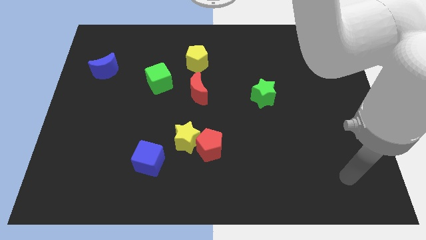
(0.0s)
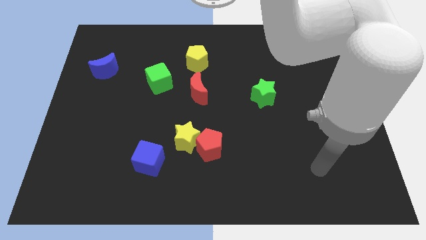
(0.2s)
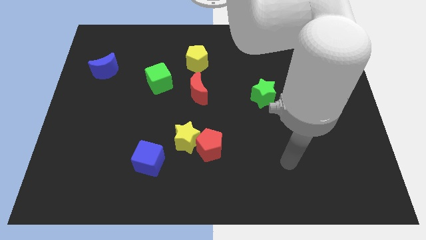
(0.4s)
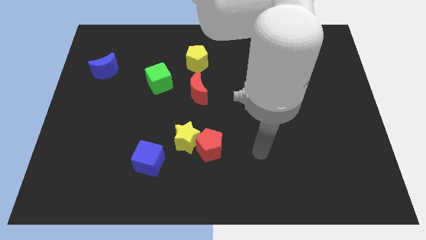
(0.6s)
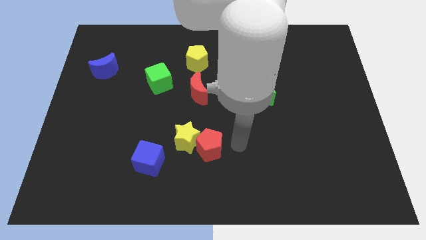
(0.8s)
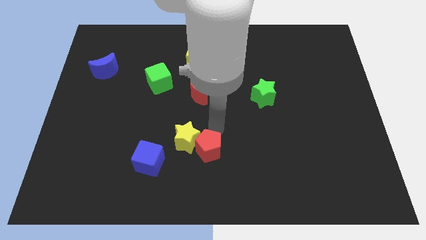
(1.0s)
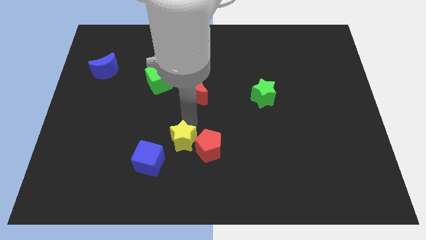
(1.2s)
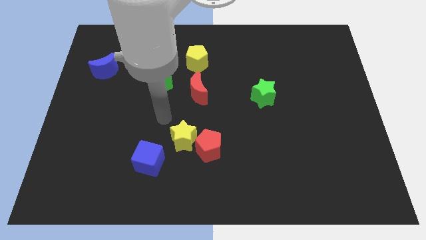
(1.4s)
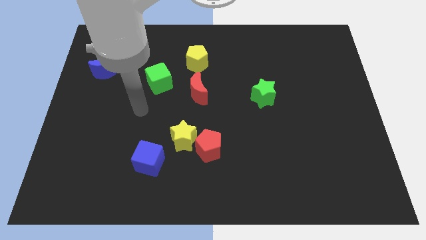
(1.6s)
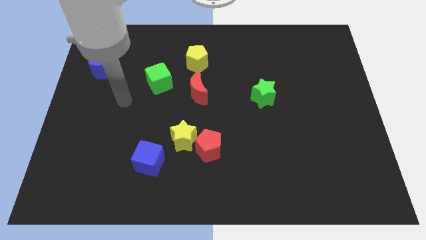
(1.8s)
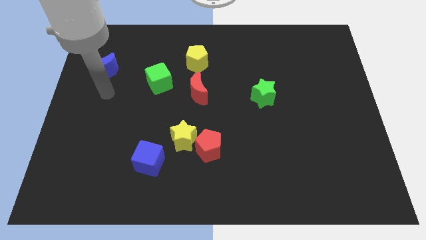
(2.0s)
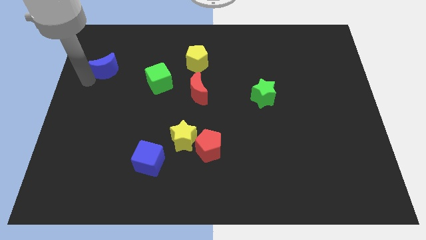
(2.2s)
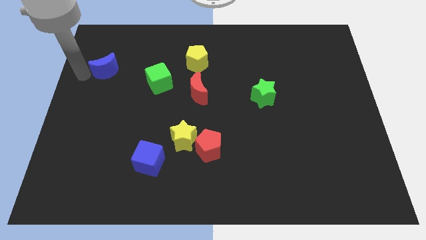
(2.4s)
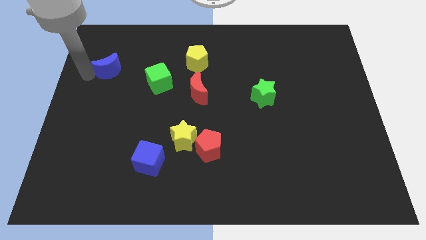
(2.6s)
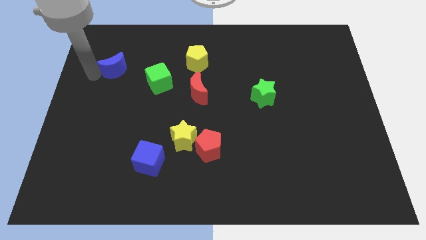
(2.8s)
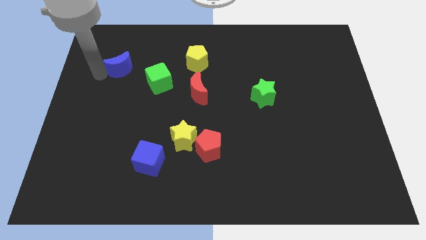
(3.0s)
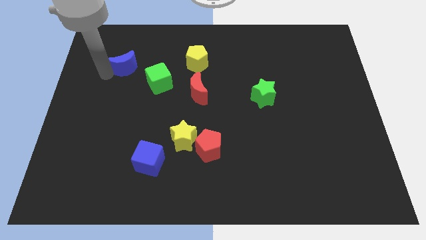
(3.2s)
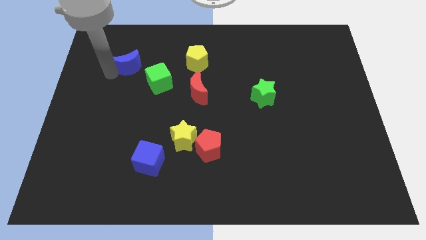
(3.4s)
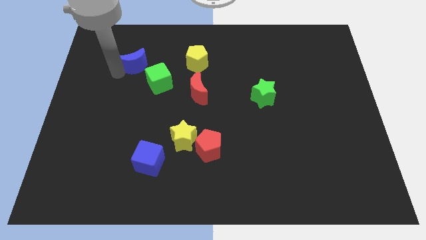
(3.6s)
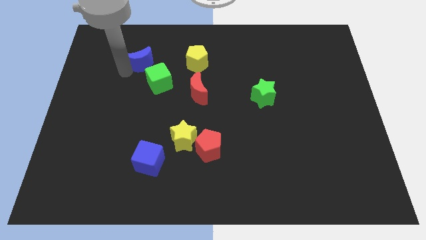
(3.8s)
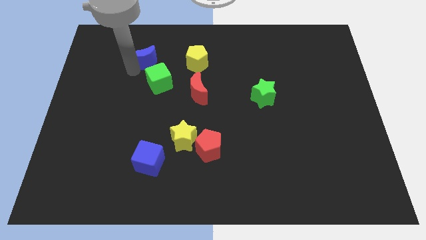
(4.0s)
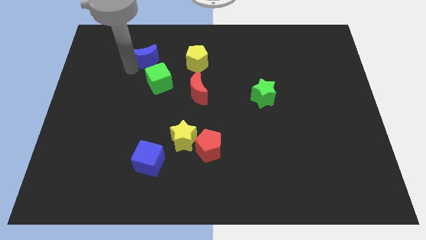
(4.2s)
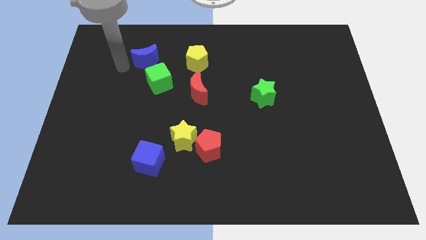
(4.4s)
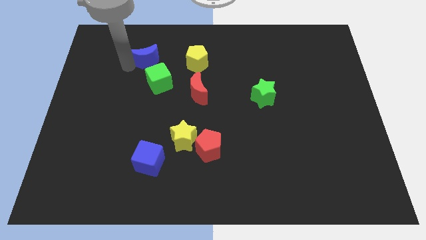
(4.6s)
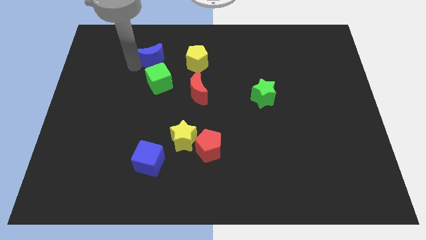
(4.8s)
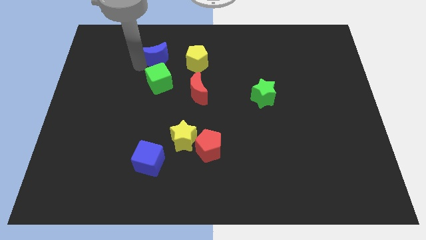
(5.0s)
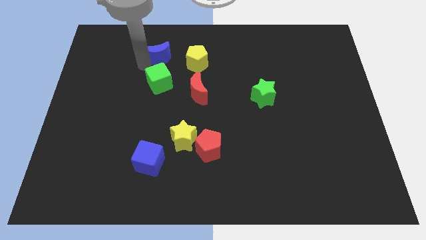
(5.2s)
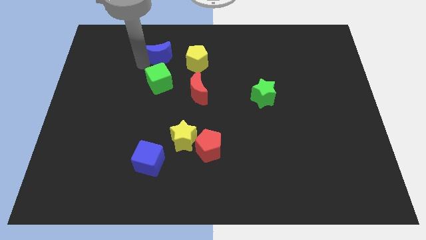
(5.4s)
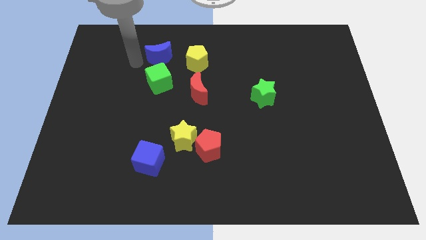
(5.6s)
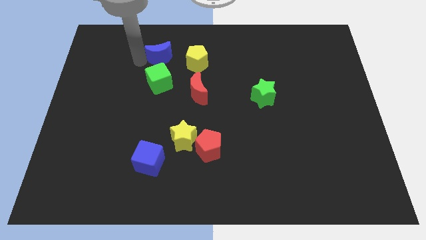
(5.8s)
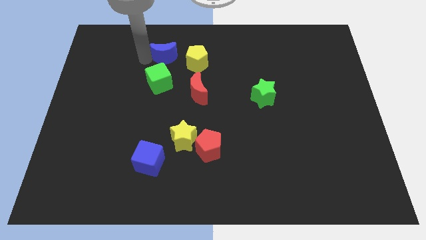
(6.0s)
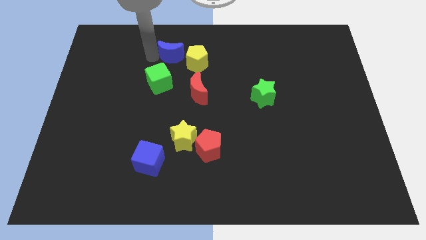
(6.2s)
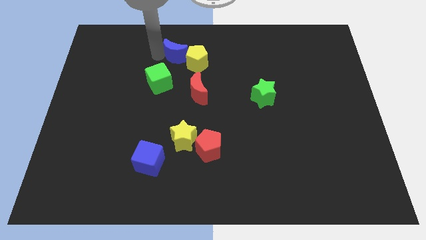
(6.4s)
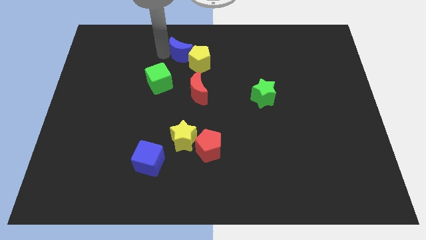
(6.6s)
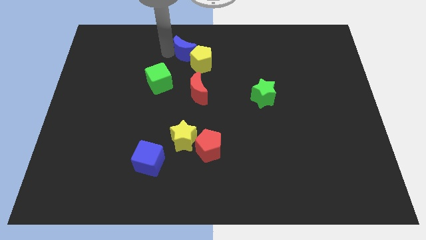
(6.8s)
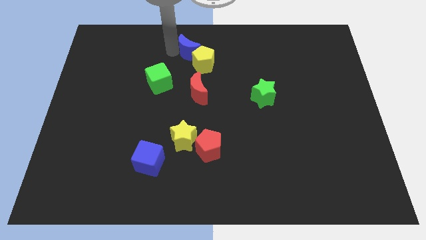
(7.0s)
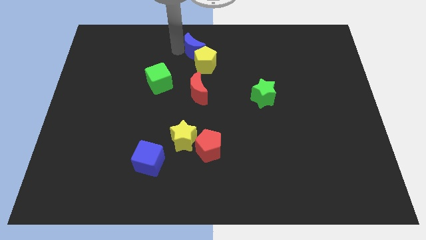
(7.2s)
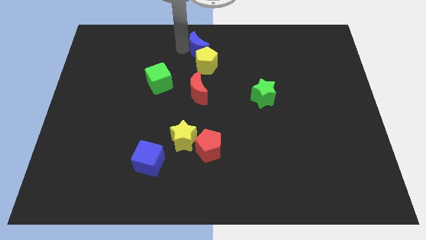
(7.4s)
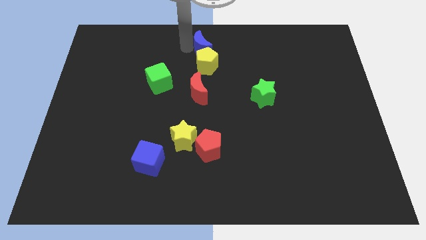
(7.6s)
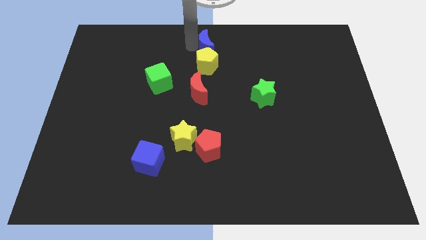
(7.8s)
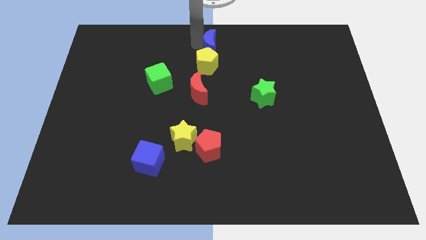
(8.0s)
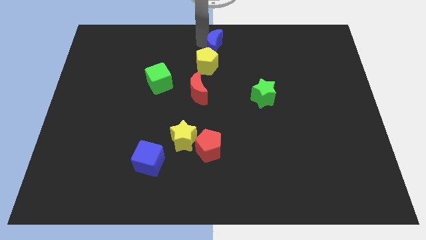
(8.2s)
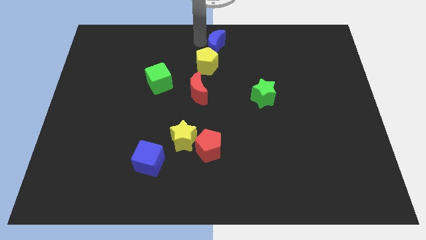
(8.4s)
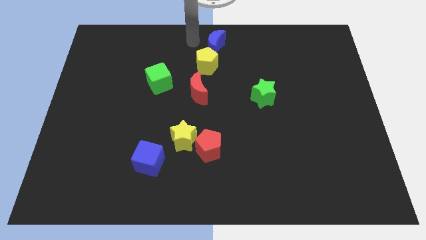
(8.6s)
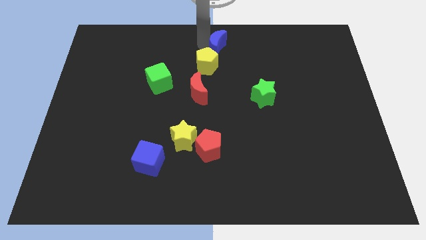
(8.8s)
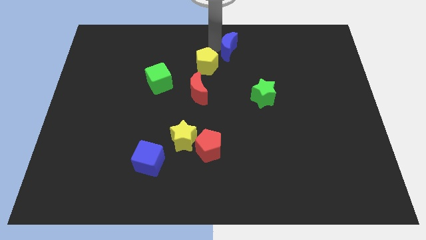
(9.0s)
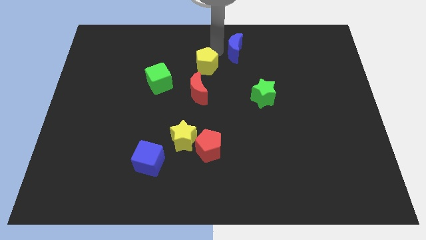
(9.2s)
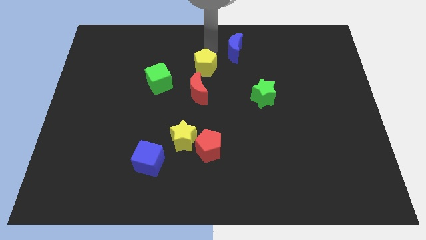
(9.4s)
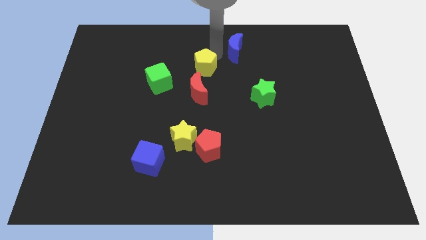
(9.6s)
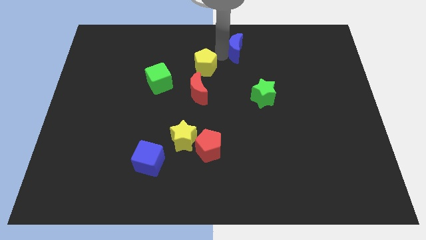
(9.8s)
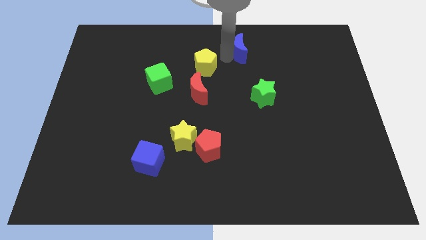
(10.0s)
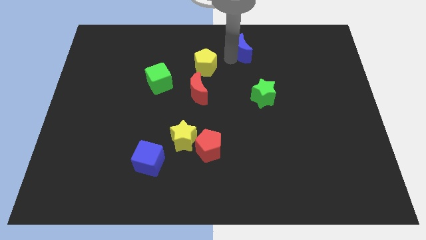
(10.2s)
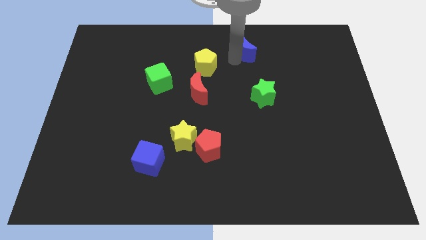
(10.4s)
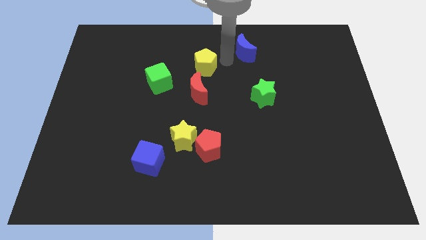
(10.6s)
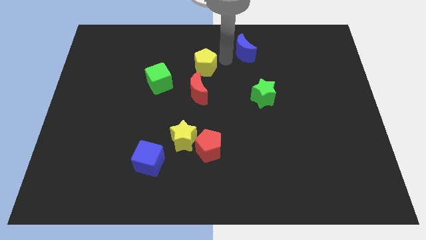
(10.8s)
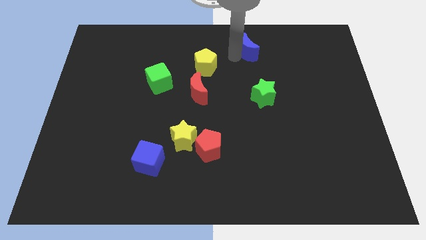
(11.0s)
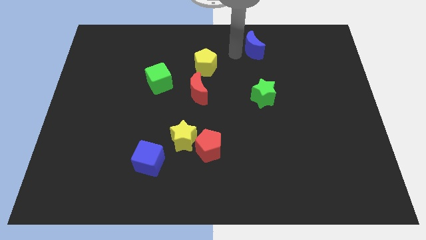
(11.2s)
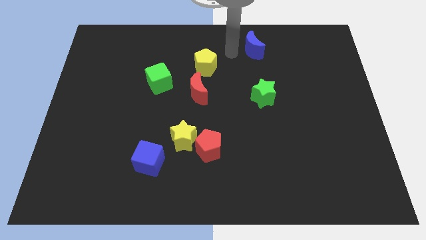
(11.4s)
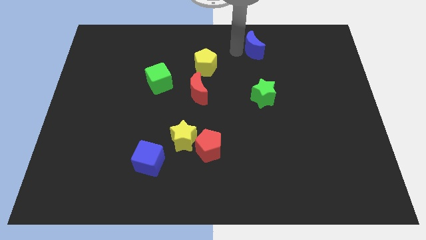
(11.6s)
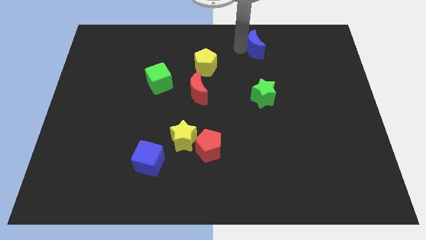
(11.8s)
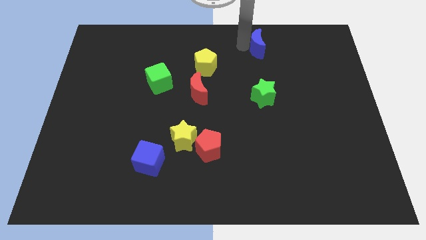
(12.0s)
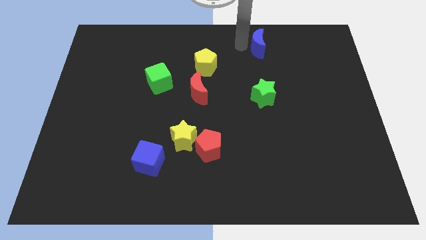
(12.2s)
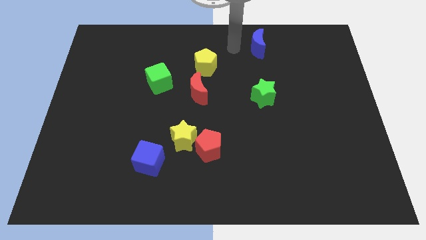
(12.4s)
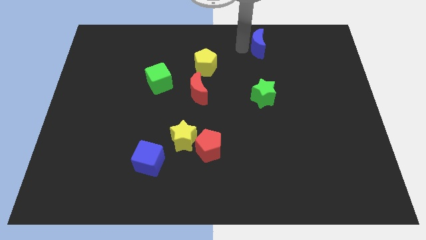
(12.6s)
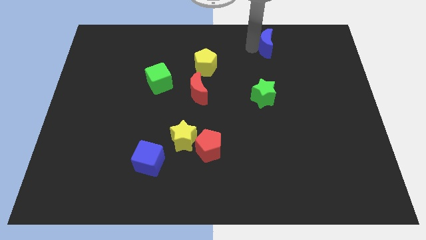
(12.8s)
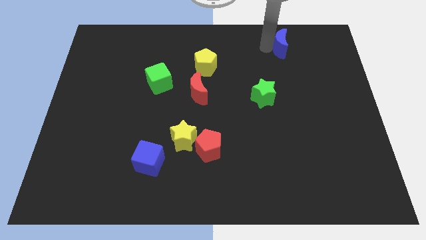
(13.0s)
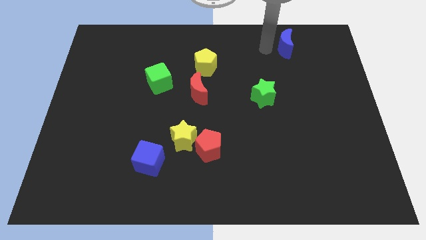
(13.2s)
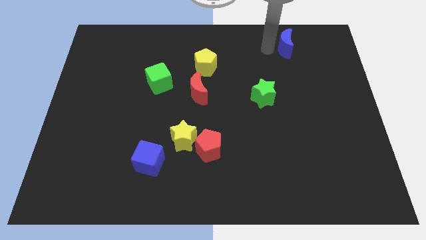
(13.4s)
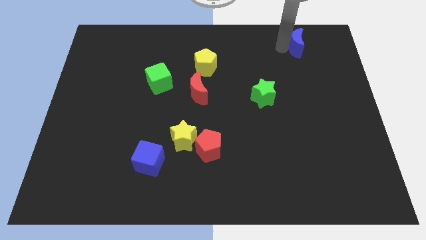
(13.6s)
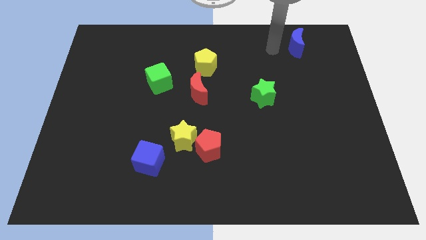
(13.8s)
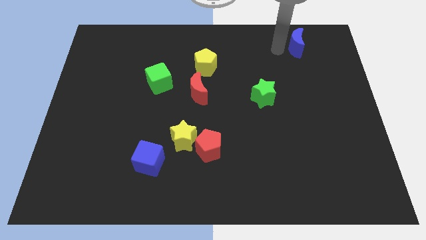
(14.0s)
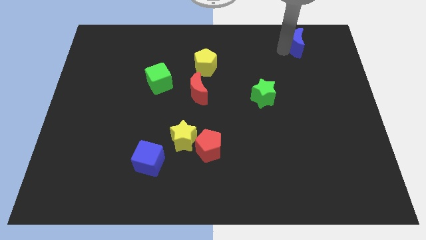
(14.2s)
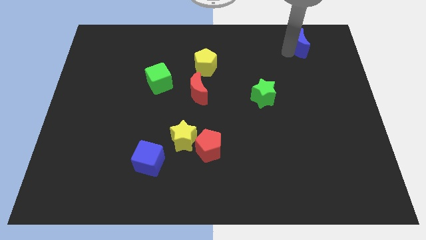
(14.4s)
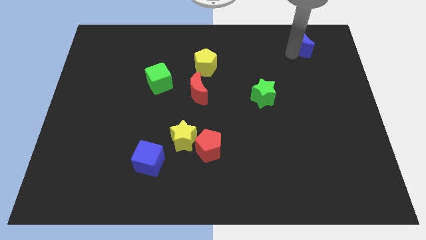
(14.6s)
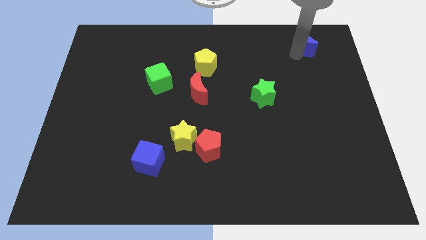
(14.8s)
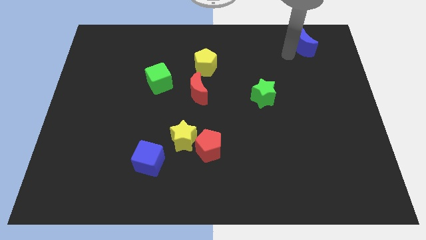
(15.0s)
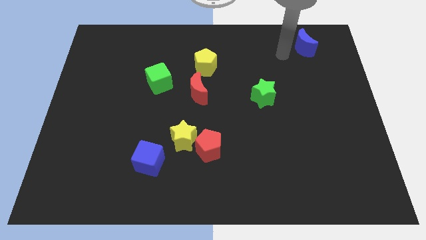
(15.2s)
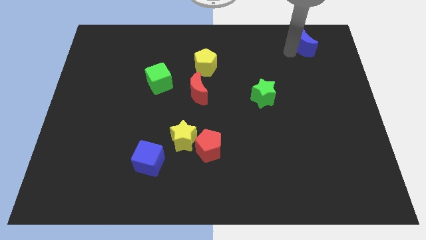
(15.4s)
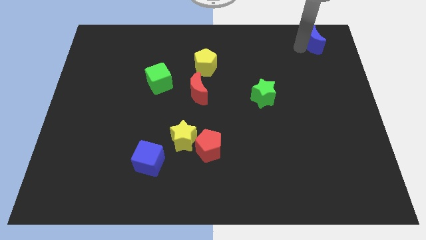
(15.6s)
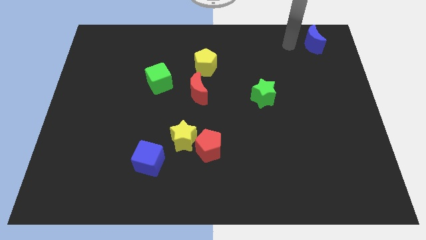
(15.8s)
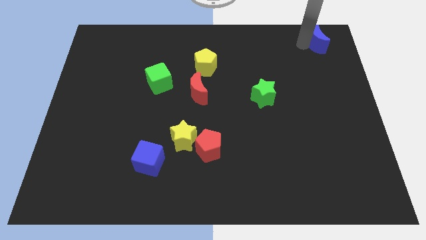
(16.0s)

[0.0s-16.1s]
put the blue moon to the top right
